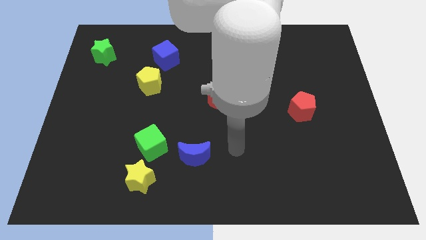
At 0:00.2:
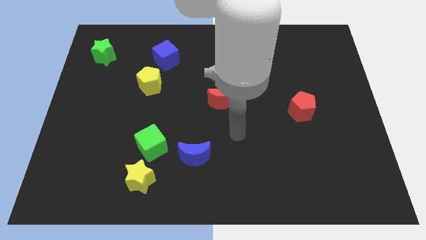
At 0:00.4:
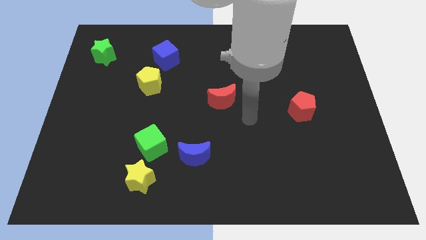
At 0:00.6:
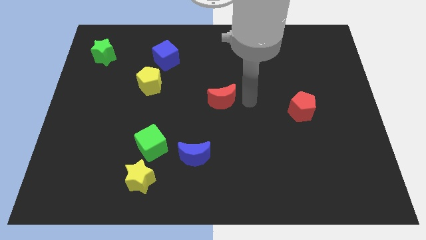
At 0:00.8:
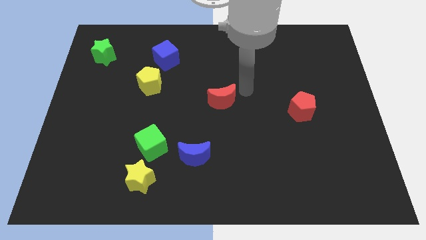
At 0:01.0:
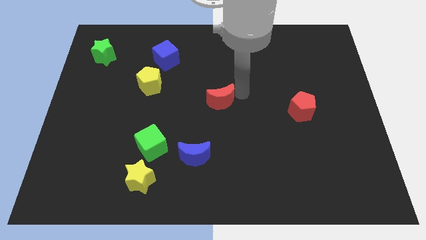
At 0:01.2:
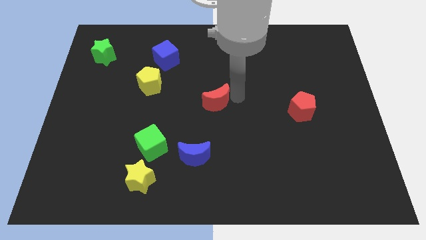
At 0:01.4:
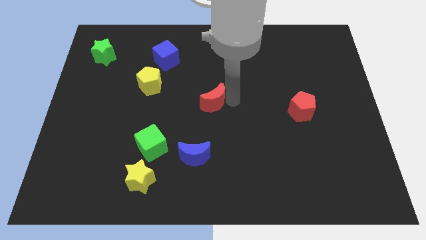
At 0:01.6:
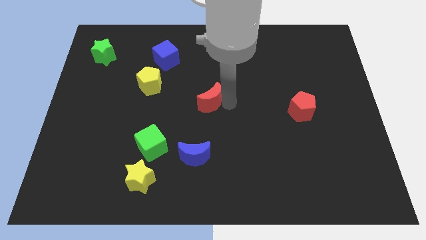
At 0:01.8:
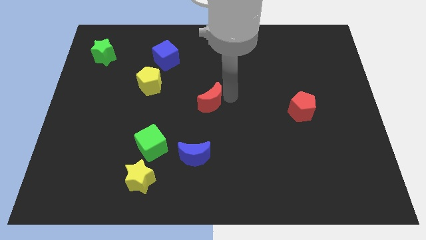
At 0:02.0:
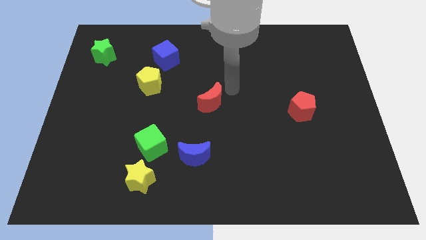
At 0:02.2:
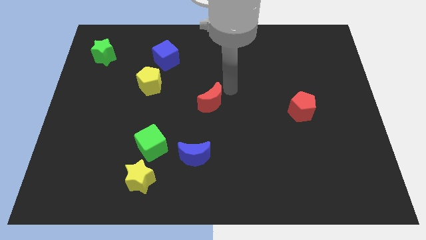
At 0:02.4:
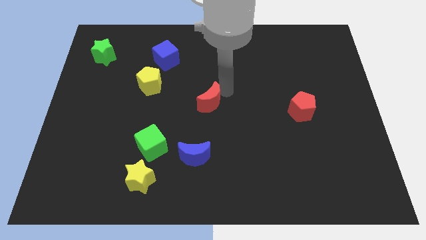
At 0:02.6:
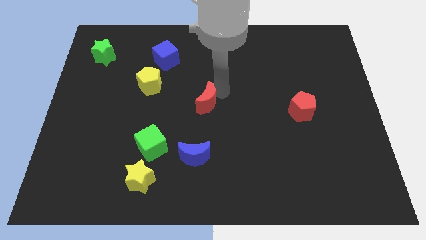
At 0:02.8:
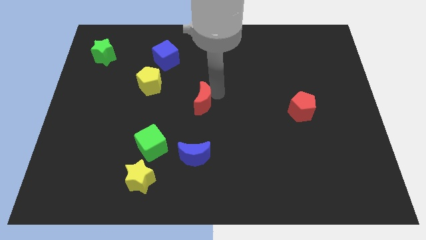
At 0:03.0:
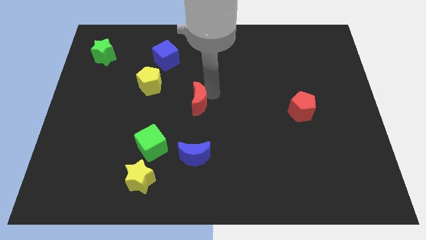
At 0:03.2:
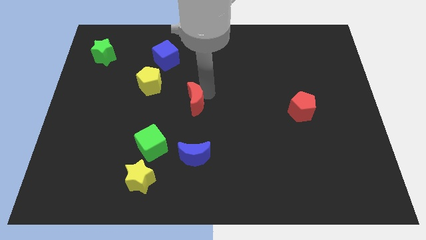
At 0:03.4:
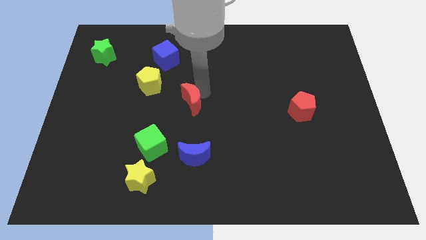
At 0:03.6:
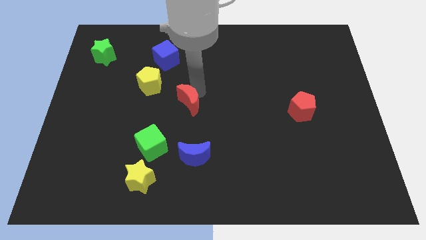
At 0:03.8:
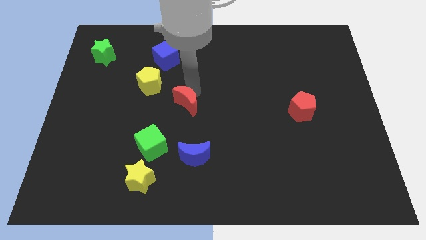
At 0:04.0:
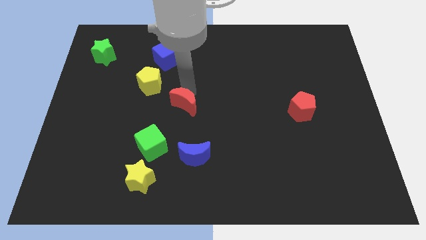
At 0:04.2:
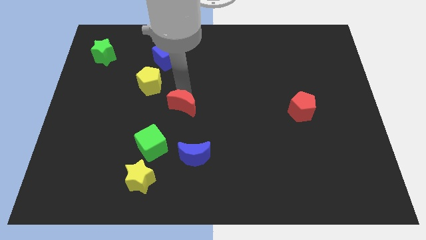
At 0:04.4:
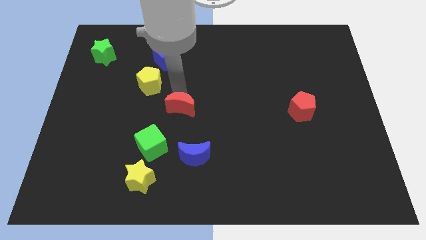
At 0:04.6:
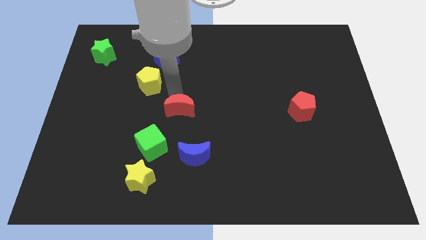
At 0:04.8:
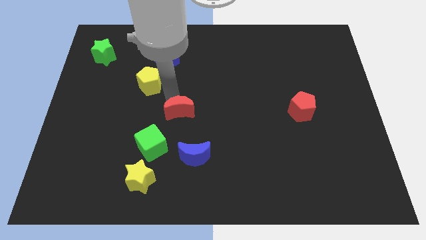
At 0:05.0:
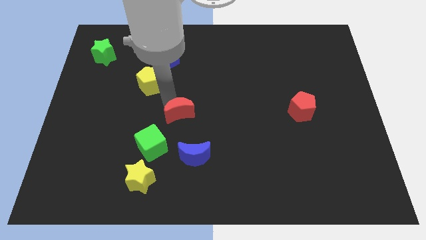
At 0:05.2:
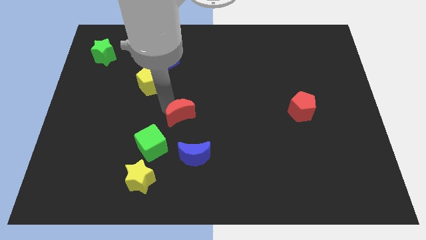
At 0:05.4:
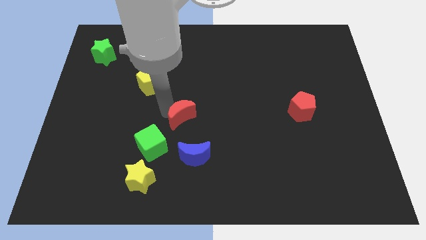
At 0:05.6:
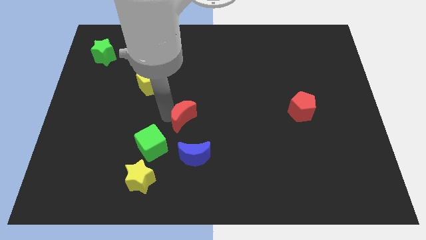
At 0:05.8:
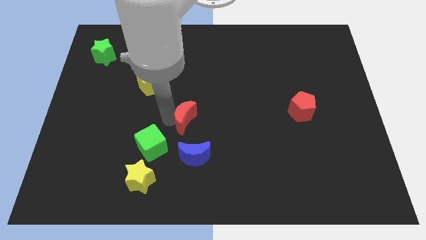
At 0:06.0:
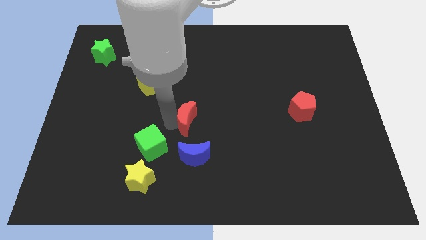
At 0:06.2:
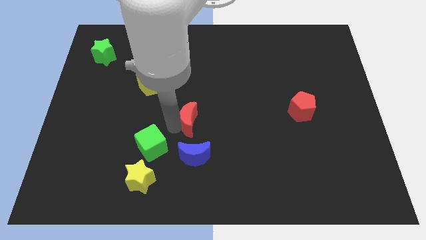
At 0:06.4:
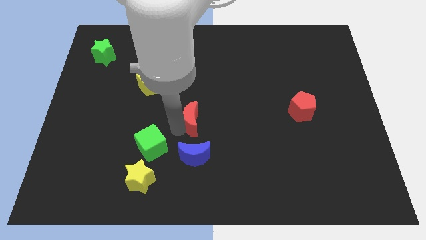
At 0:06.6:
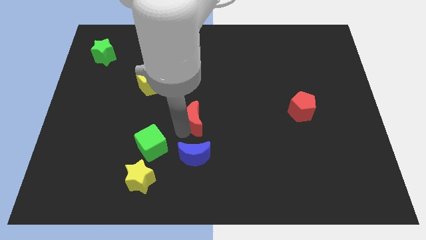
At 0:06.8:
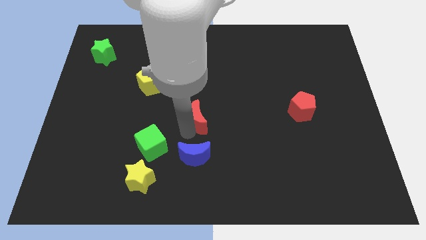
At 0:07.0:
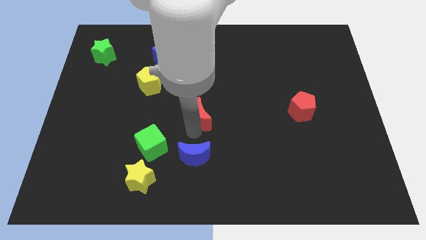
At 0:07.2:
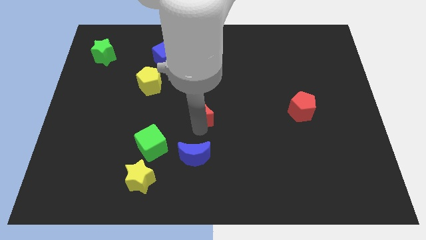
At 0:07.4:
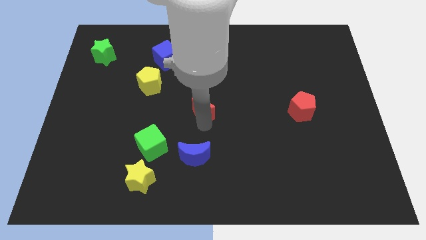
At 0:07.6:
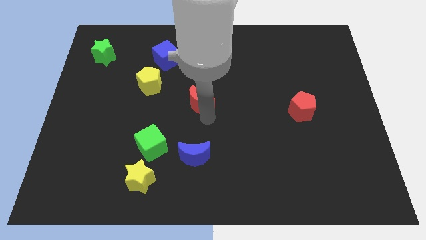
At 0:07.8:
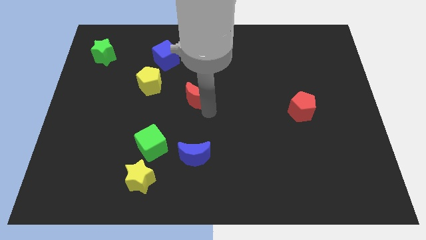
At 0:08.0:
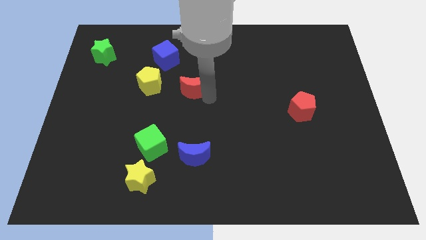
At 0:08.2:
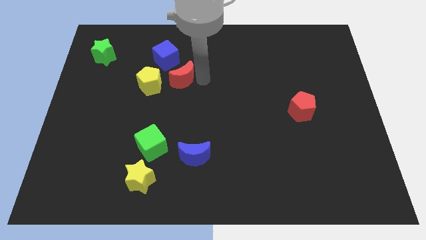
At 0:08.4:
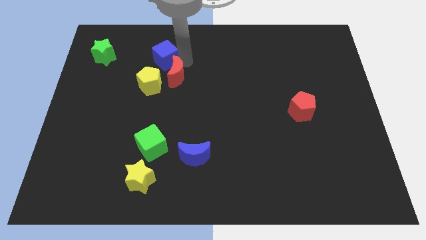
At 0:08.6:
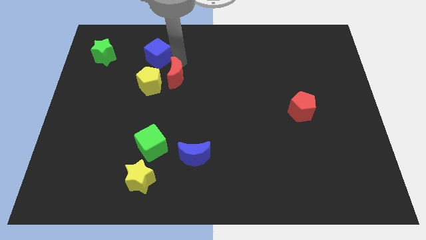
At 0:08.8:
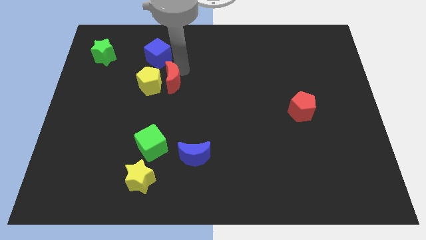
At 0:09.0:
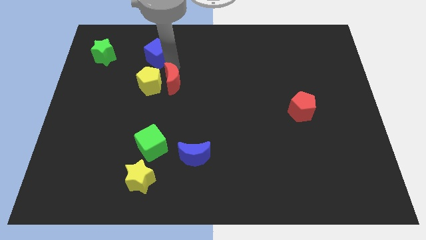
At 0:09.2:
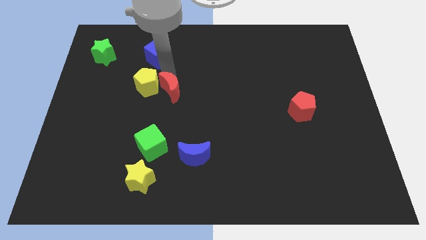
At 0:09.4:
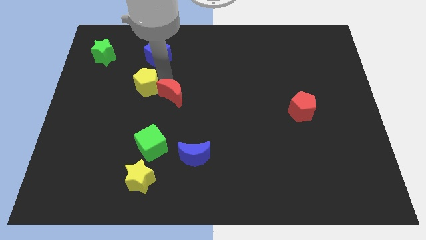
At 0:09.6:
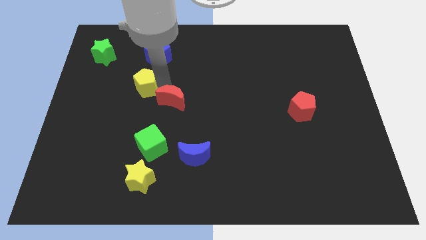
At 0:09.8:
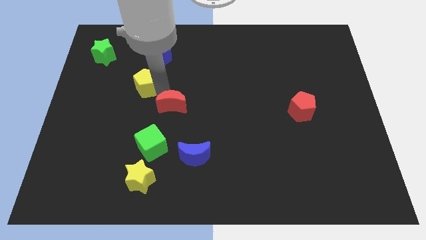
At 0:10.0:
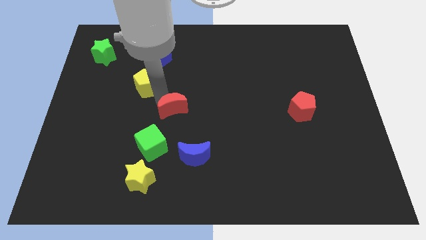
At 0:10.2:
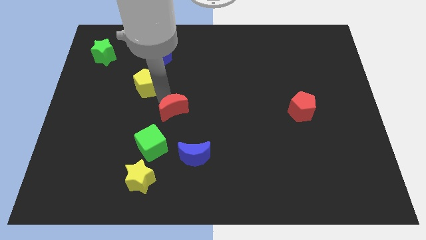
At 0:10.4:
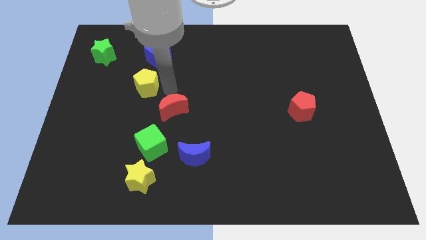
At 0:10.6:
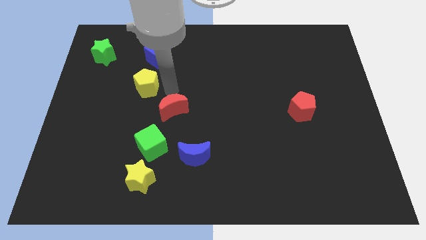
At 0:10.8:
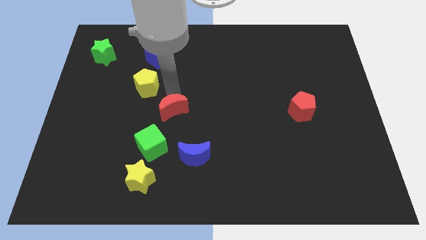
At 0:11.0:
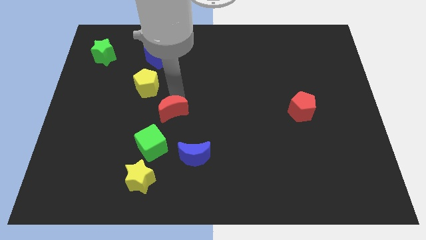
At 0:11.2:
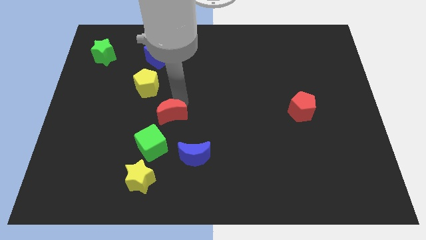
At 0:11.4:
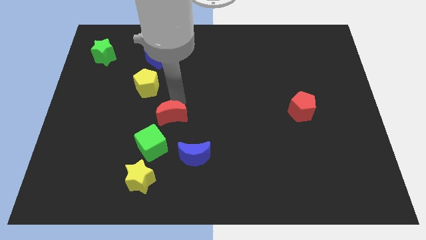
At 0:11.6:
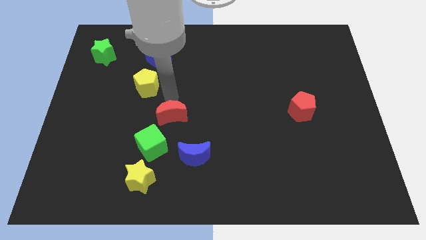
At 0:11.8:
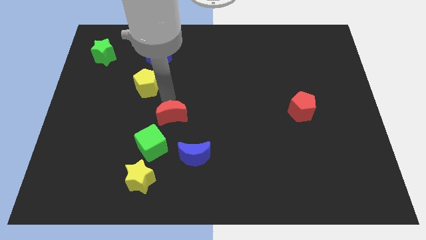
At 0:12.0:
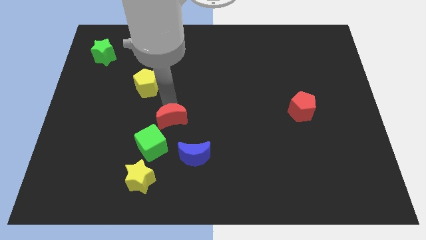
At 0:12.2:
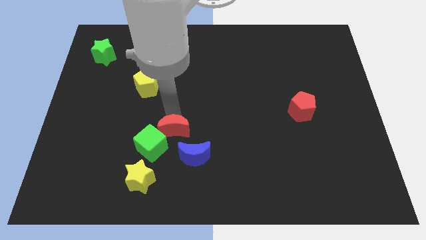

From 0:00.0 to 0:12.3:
move the red moon next to the green cube

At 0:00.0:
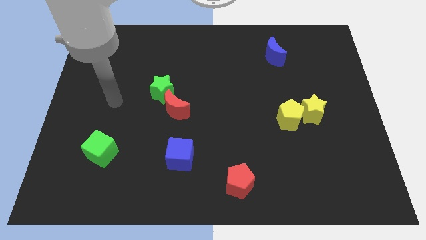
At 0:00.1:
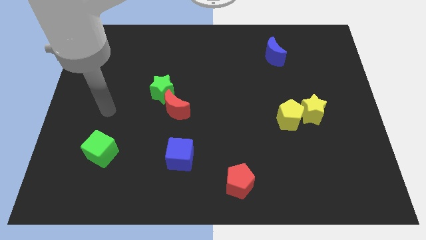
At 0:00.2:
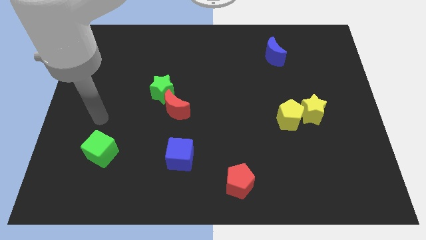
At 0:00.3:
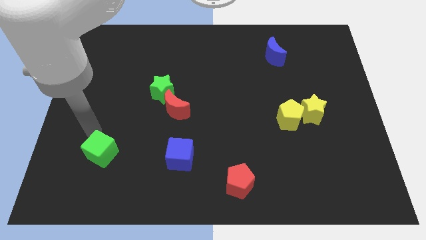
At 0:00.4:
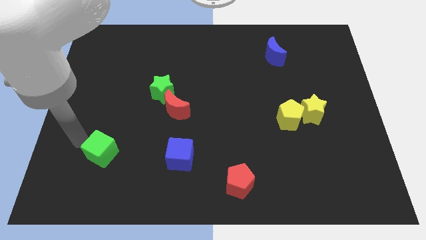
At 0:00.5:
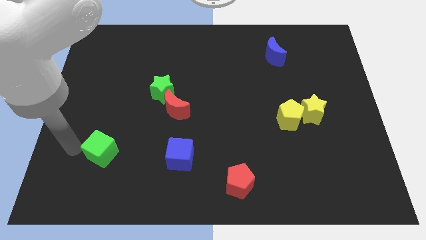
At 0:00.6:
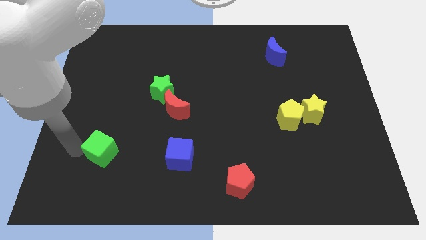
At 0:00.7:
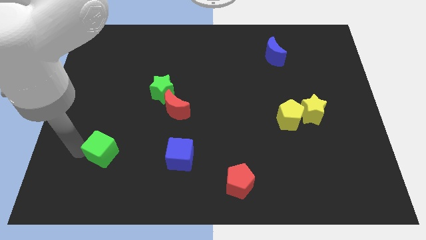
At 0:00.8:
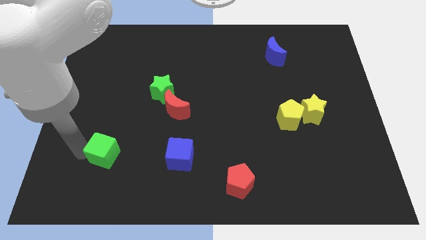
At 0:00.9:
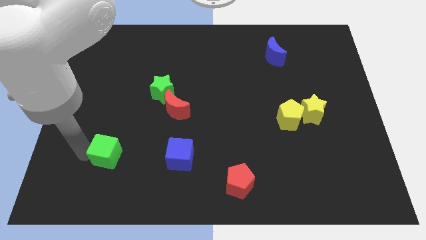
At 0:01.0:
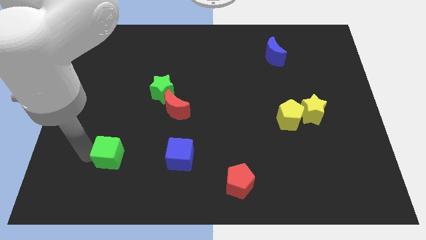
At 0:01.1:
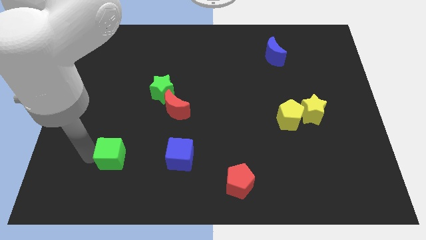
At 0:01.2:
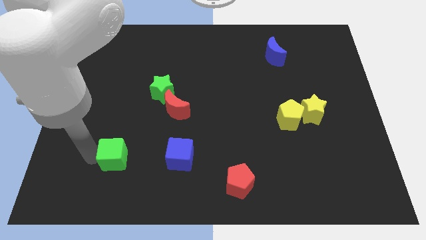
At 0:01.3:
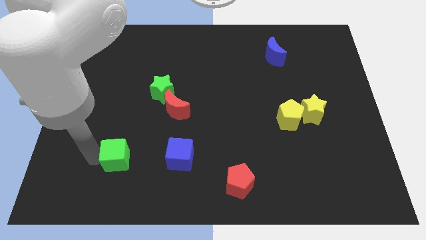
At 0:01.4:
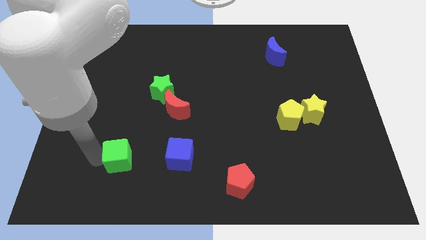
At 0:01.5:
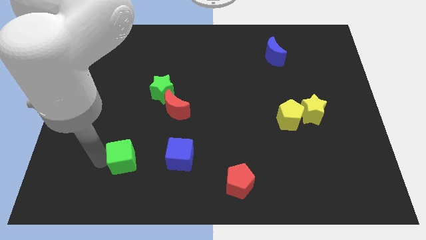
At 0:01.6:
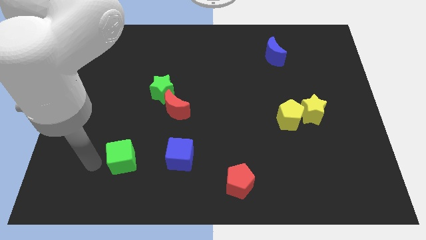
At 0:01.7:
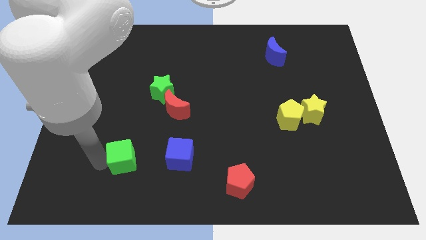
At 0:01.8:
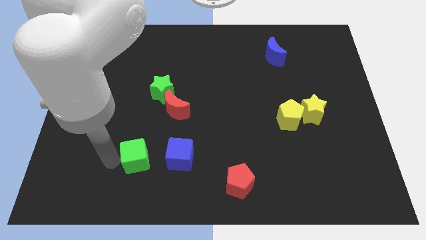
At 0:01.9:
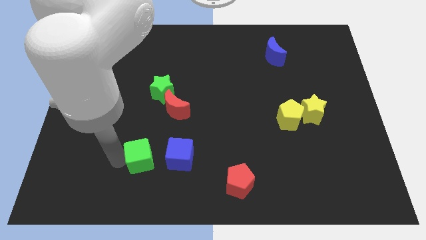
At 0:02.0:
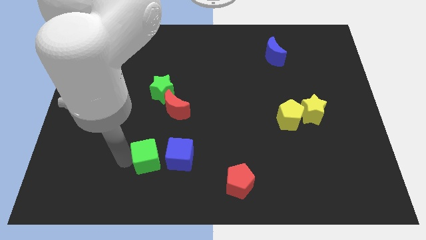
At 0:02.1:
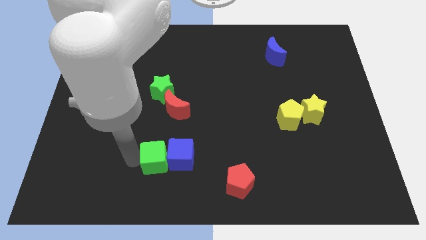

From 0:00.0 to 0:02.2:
move the green cube next to the blue cube
